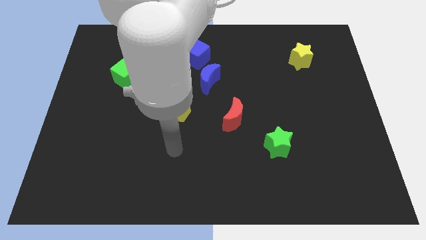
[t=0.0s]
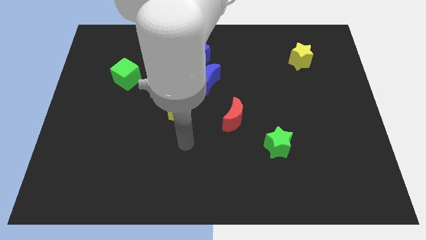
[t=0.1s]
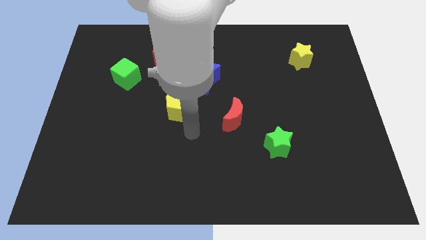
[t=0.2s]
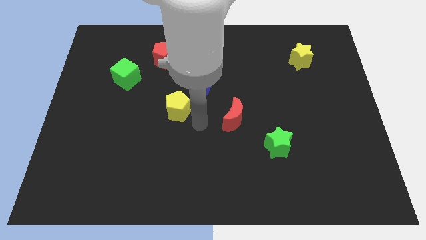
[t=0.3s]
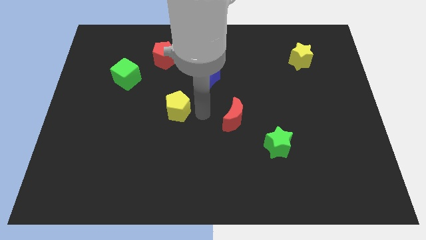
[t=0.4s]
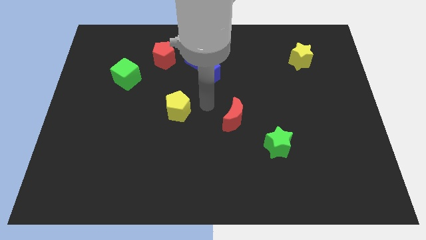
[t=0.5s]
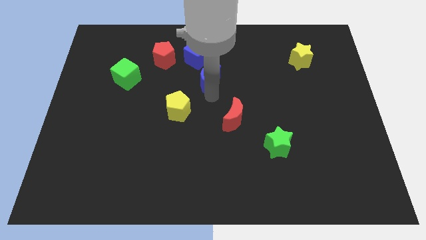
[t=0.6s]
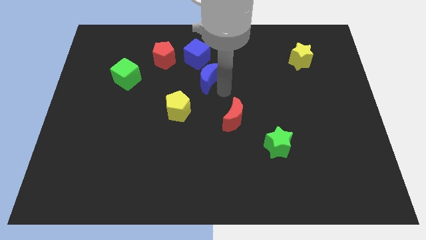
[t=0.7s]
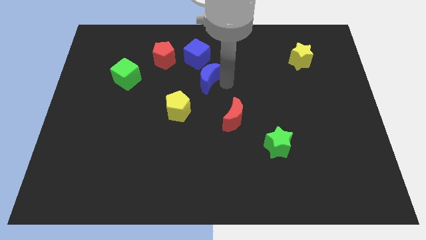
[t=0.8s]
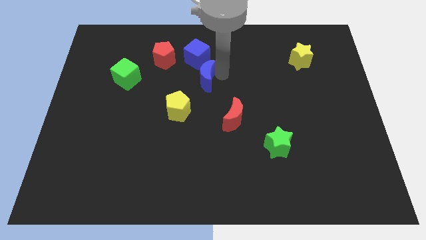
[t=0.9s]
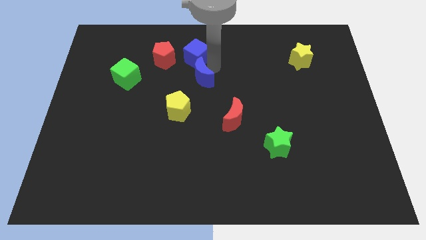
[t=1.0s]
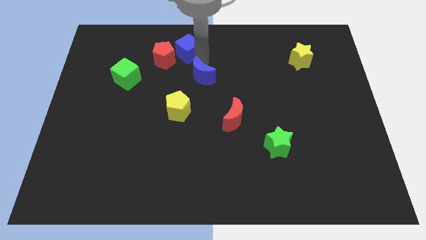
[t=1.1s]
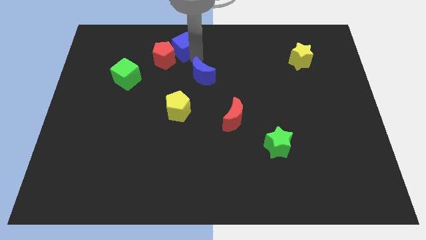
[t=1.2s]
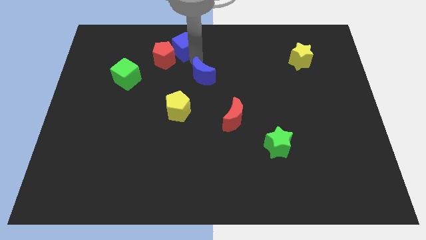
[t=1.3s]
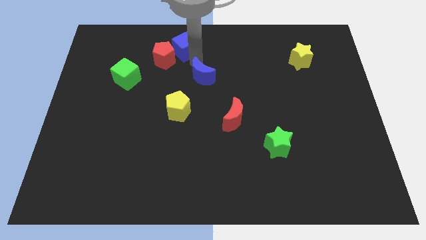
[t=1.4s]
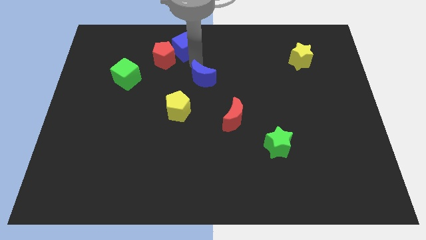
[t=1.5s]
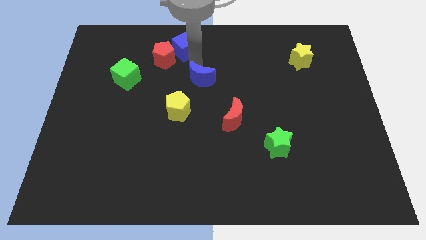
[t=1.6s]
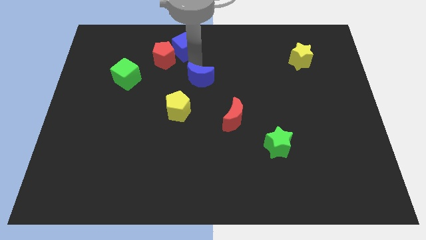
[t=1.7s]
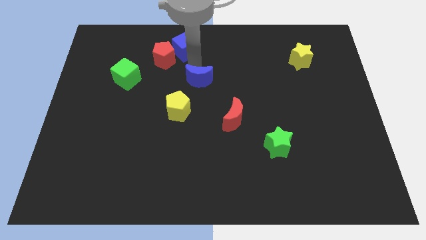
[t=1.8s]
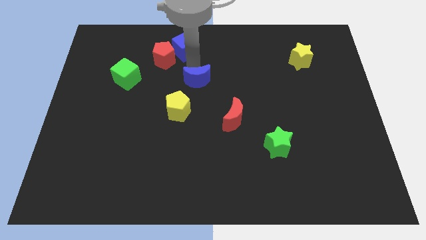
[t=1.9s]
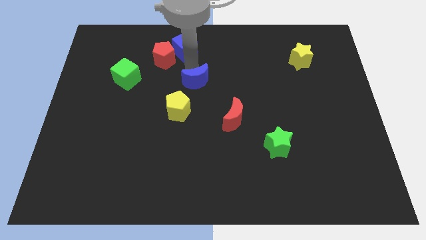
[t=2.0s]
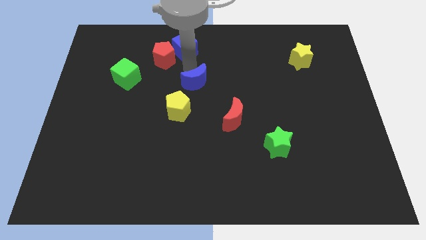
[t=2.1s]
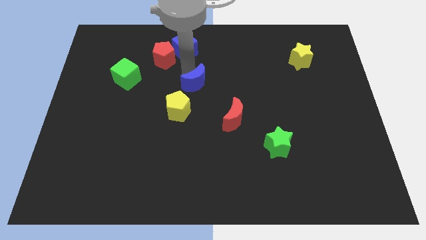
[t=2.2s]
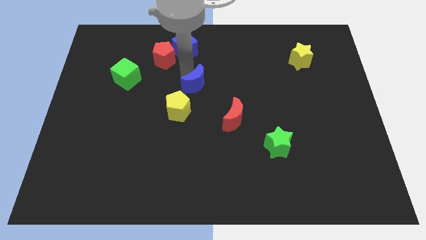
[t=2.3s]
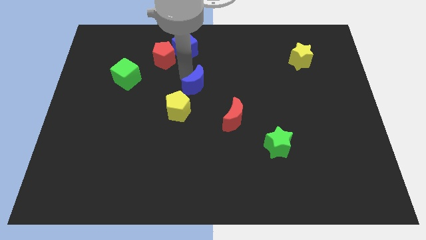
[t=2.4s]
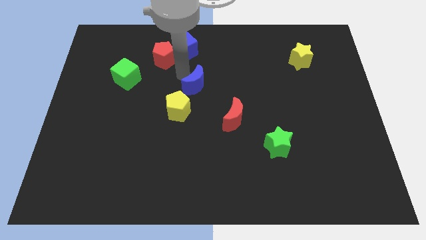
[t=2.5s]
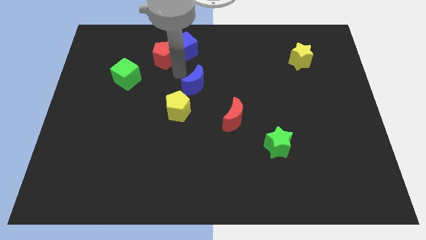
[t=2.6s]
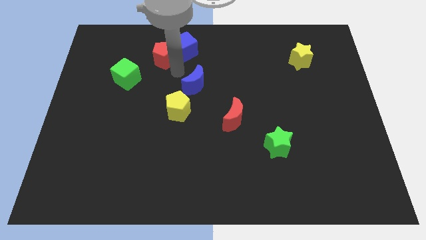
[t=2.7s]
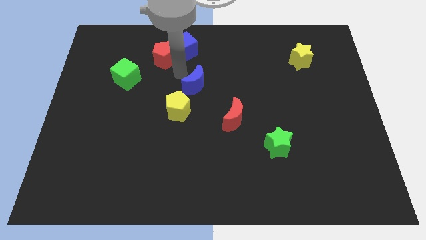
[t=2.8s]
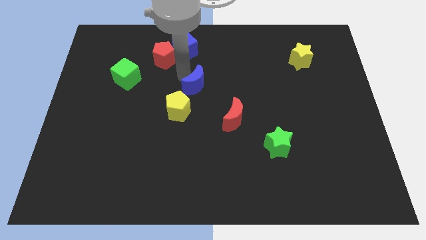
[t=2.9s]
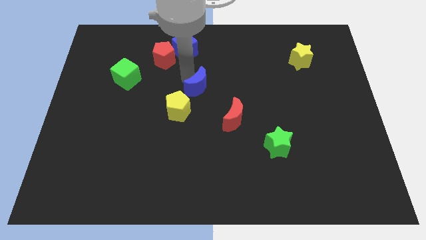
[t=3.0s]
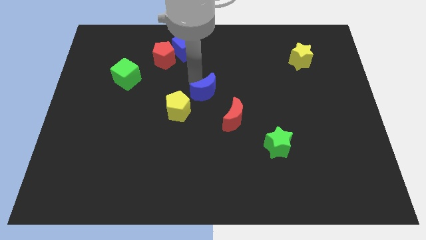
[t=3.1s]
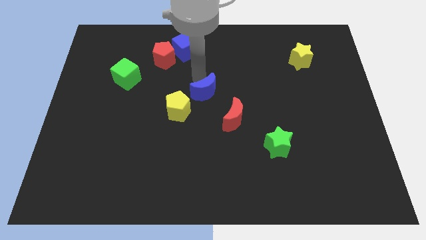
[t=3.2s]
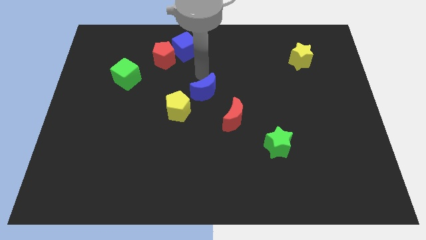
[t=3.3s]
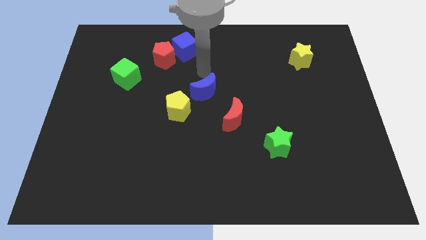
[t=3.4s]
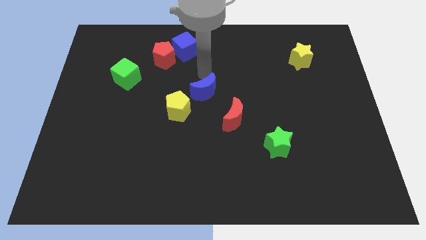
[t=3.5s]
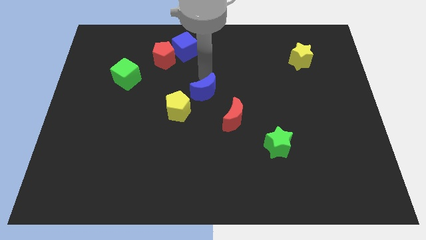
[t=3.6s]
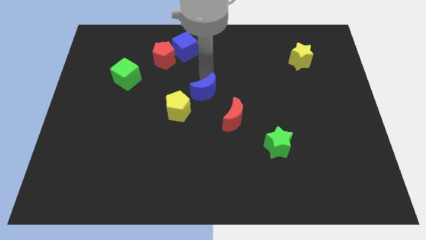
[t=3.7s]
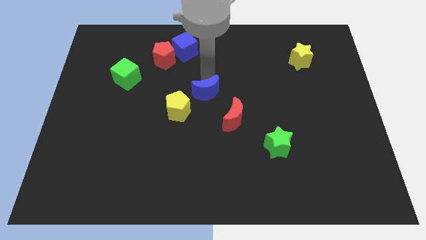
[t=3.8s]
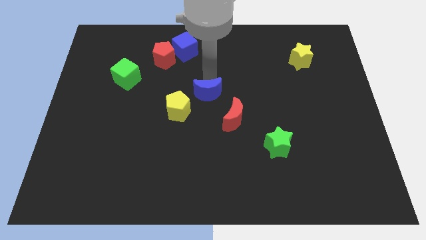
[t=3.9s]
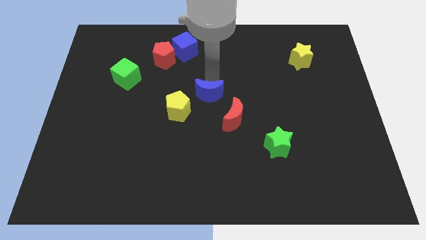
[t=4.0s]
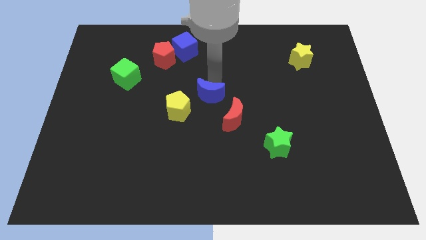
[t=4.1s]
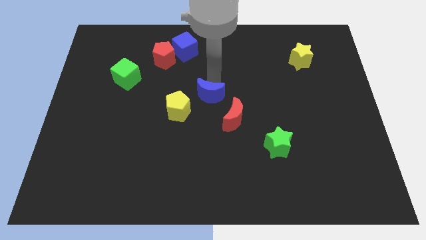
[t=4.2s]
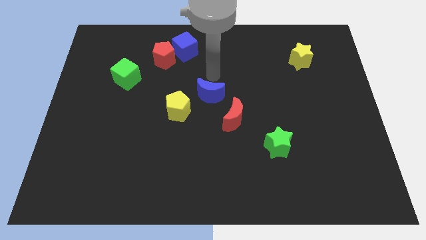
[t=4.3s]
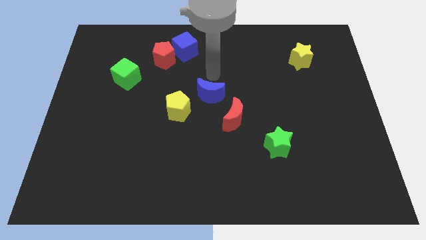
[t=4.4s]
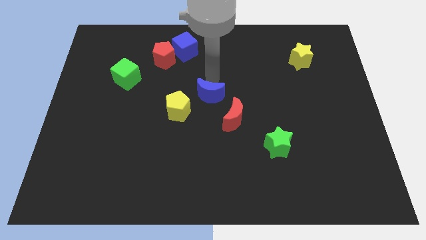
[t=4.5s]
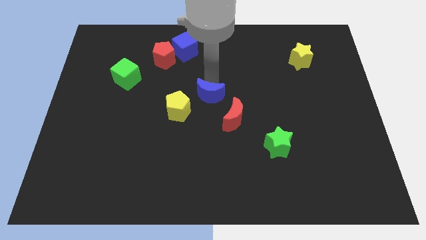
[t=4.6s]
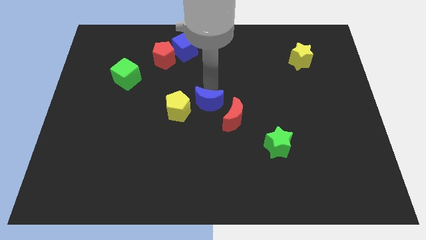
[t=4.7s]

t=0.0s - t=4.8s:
slide the blue moon a bit down

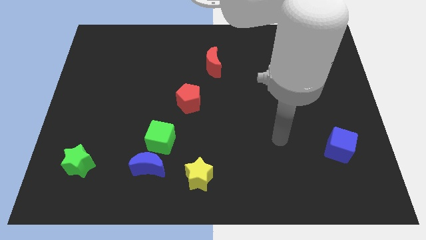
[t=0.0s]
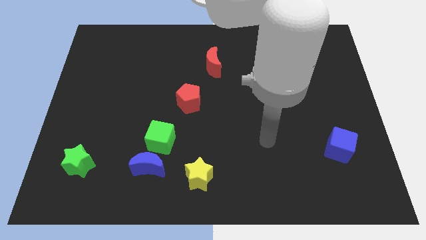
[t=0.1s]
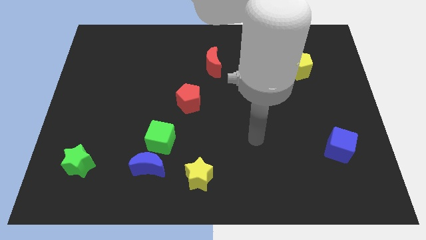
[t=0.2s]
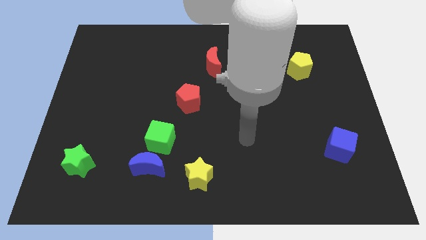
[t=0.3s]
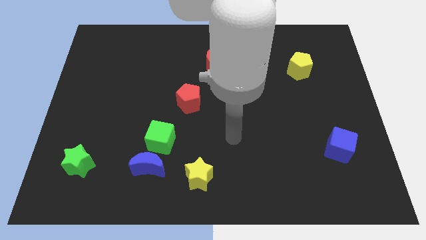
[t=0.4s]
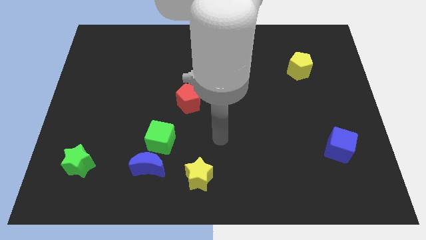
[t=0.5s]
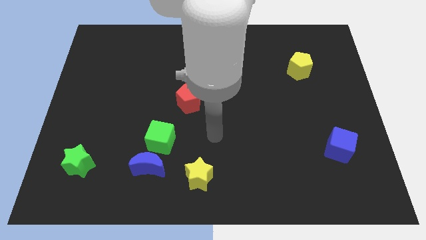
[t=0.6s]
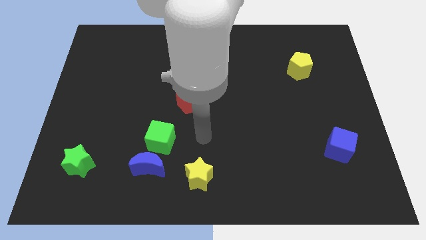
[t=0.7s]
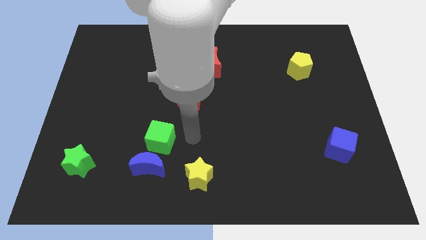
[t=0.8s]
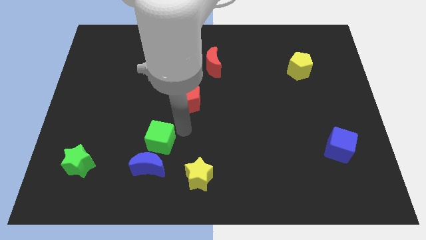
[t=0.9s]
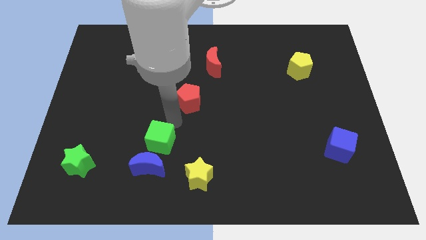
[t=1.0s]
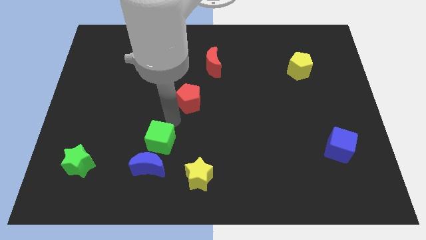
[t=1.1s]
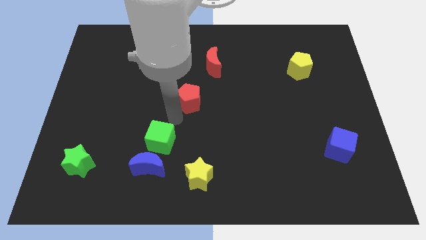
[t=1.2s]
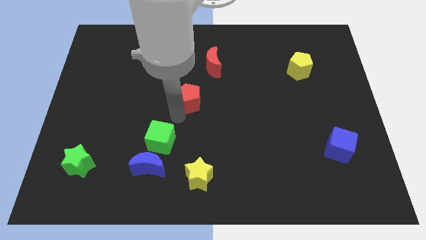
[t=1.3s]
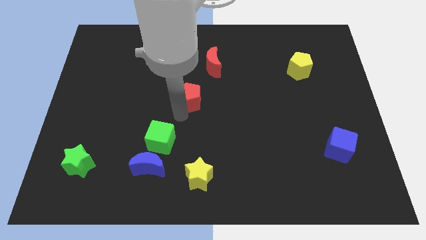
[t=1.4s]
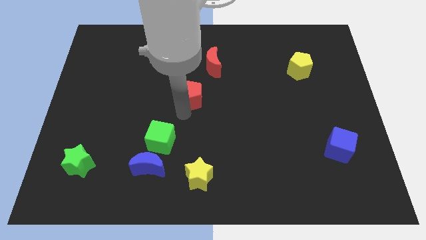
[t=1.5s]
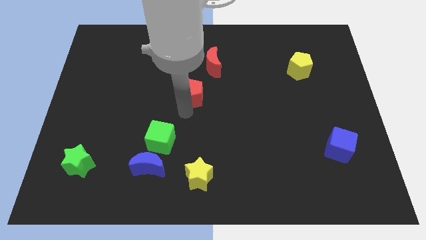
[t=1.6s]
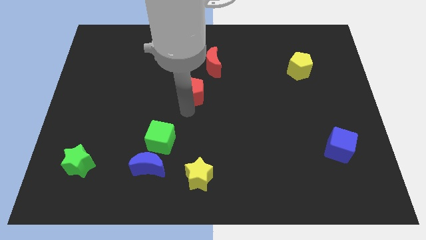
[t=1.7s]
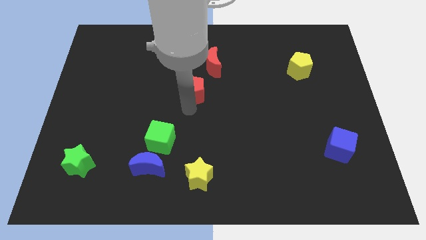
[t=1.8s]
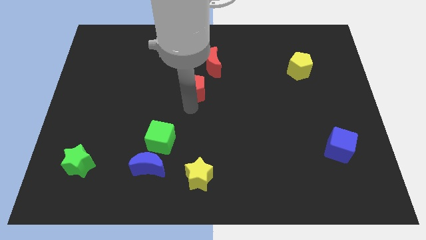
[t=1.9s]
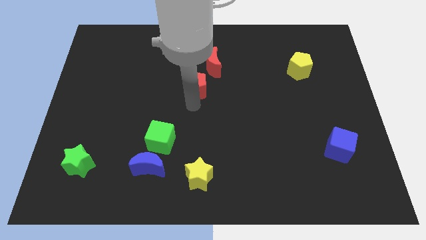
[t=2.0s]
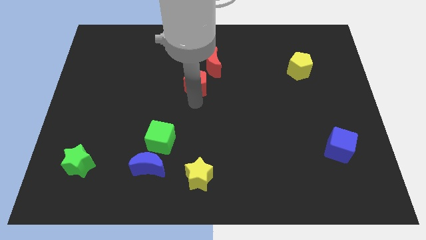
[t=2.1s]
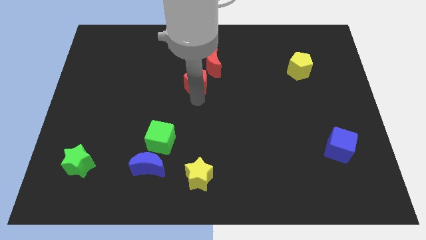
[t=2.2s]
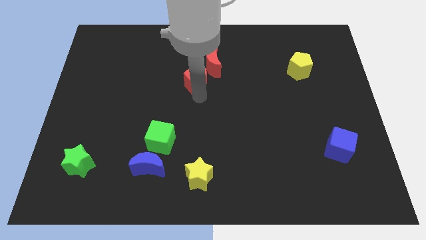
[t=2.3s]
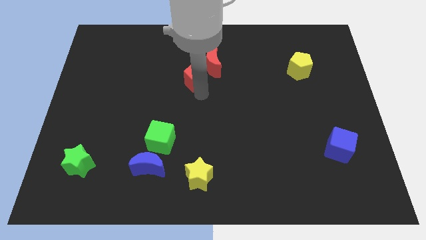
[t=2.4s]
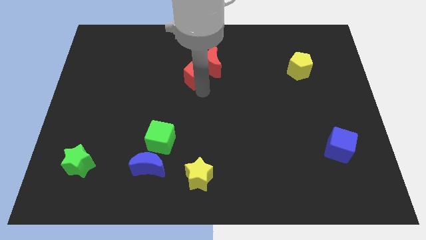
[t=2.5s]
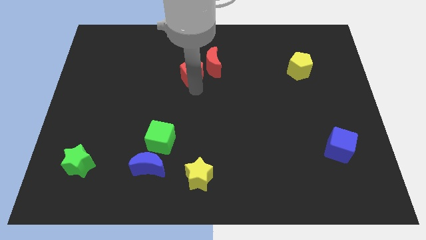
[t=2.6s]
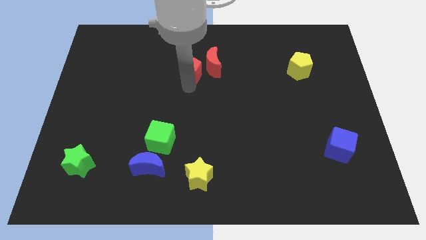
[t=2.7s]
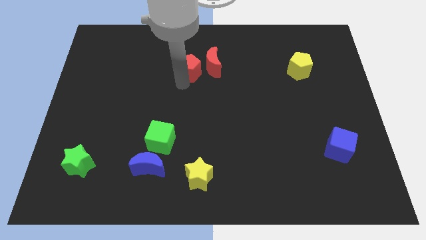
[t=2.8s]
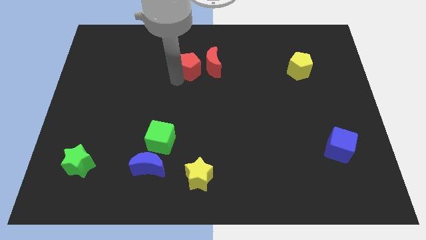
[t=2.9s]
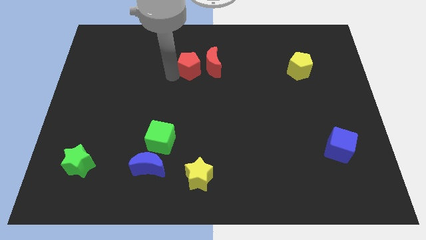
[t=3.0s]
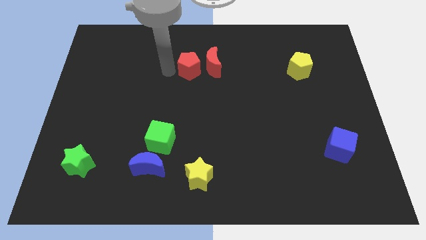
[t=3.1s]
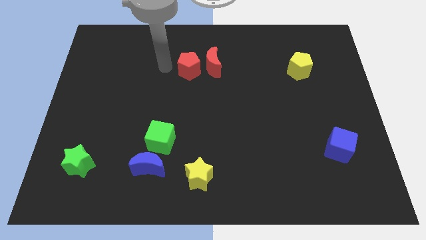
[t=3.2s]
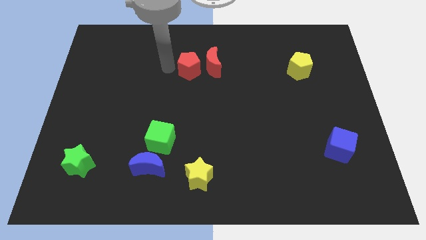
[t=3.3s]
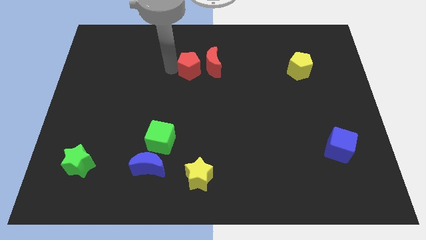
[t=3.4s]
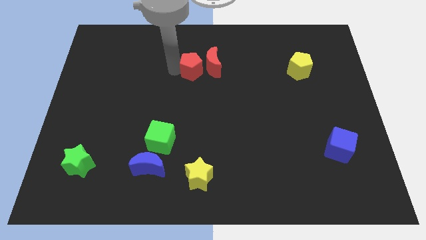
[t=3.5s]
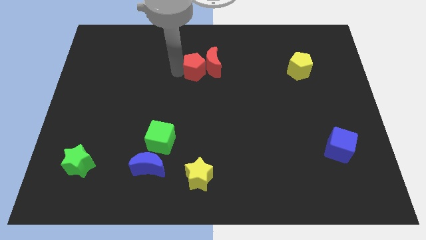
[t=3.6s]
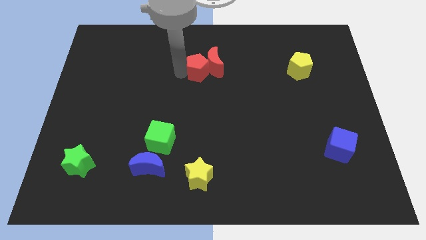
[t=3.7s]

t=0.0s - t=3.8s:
push the red pentagon upwards and then right a bit
